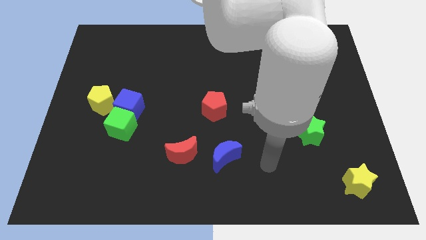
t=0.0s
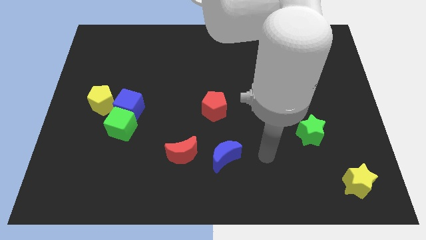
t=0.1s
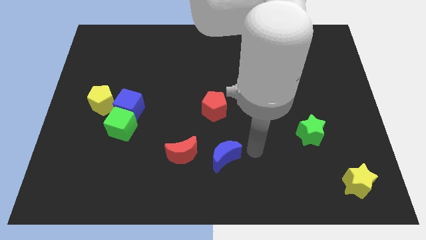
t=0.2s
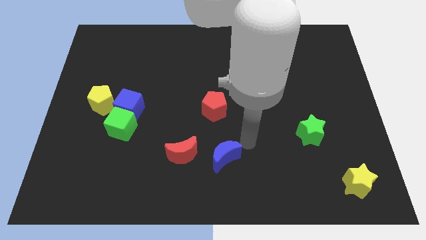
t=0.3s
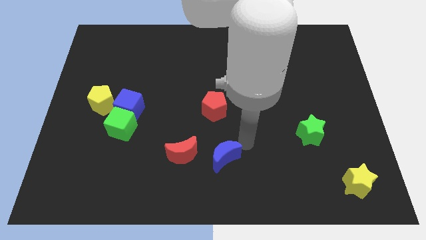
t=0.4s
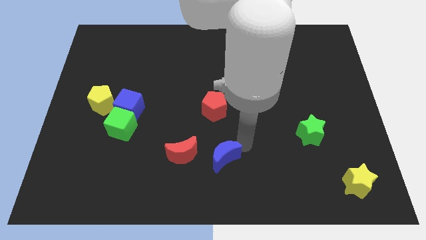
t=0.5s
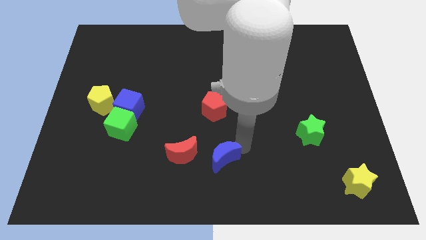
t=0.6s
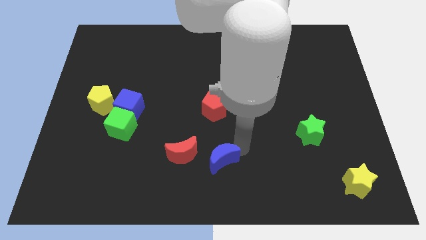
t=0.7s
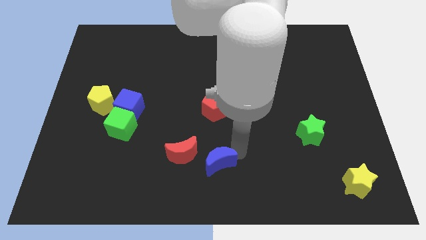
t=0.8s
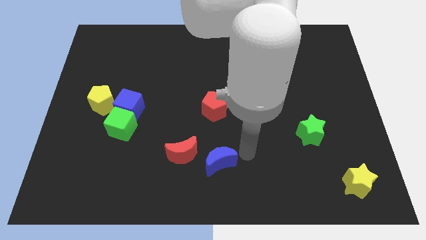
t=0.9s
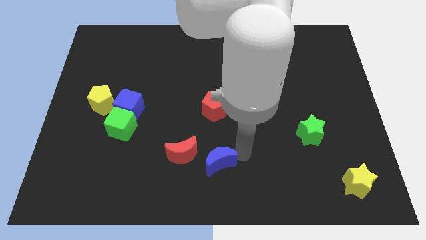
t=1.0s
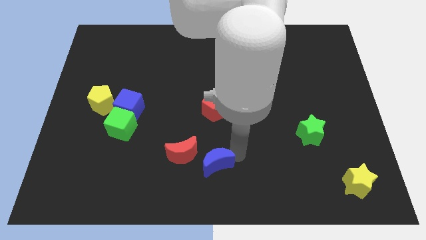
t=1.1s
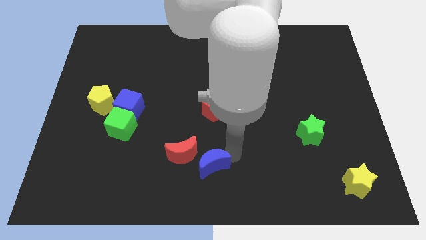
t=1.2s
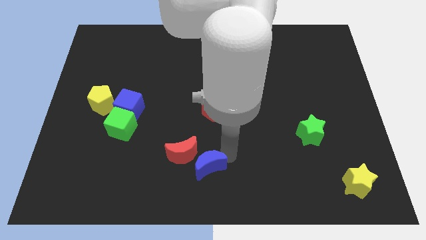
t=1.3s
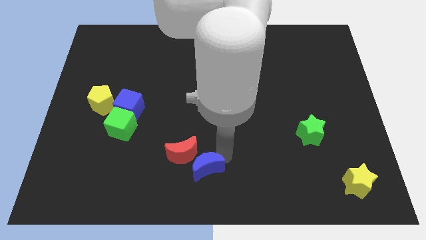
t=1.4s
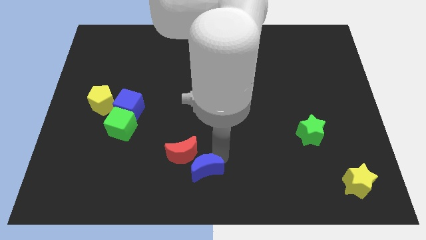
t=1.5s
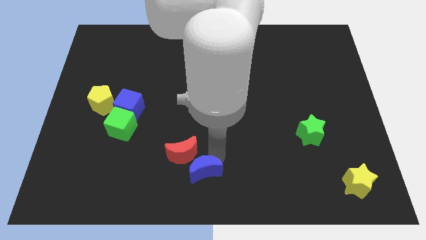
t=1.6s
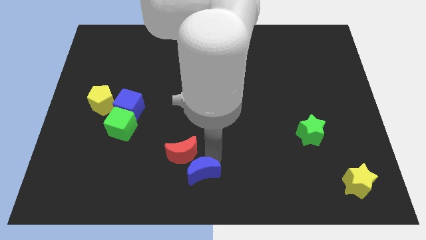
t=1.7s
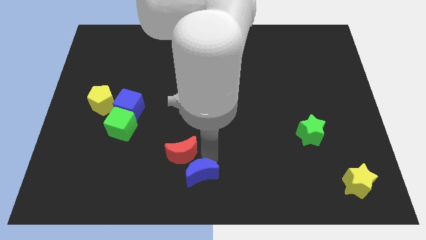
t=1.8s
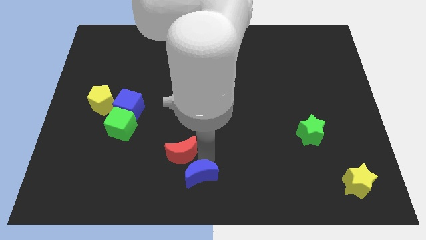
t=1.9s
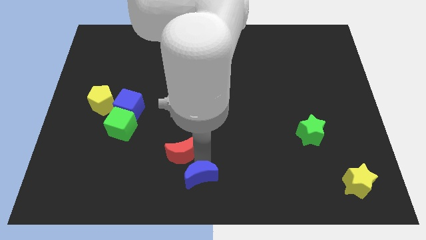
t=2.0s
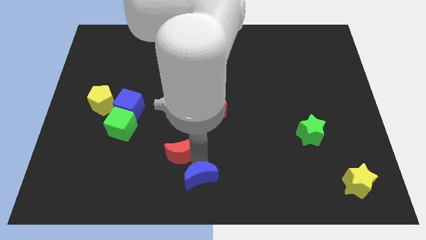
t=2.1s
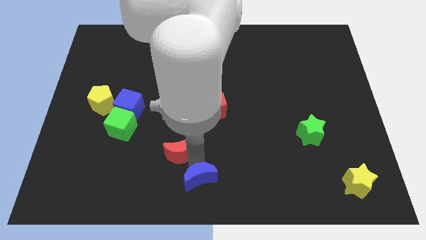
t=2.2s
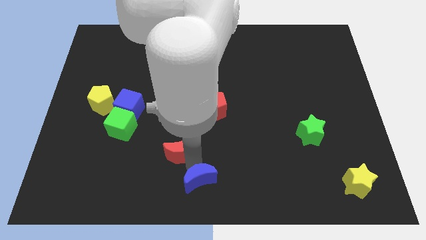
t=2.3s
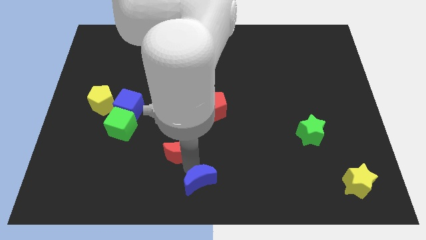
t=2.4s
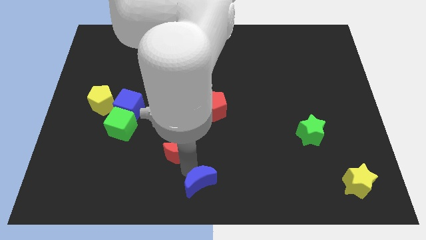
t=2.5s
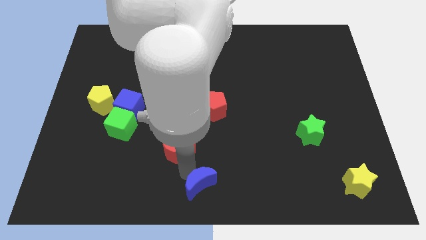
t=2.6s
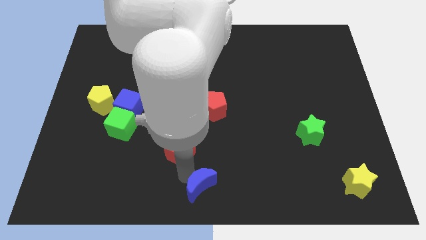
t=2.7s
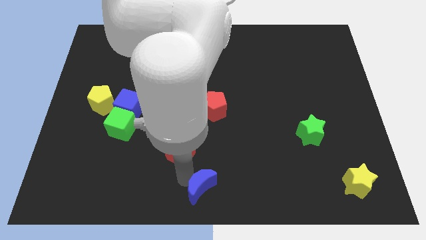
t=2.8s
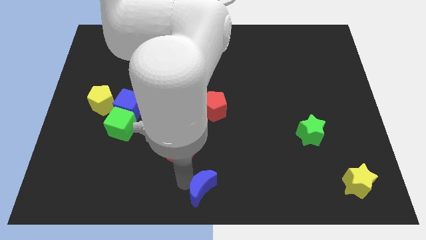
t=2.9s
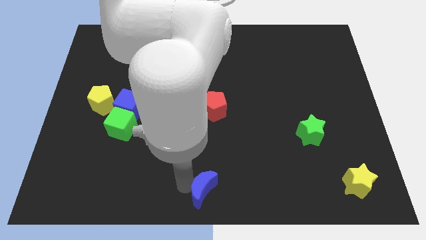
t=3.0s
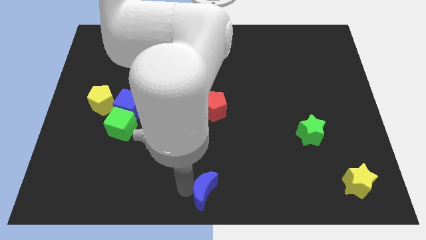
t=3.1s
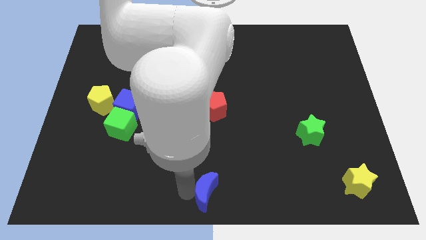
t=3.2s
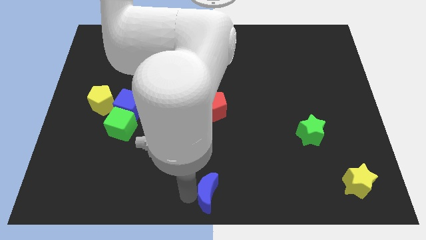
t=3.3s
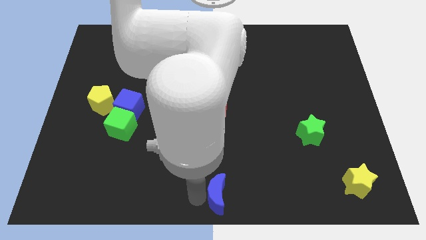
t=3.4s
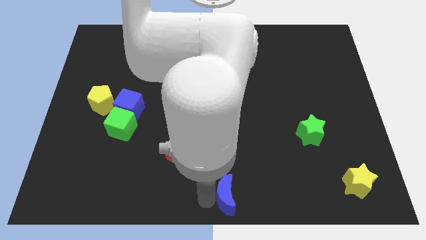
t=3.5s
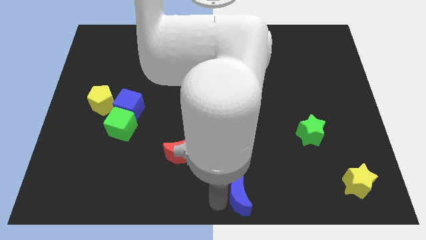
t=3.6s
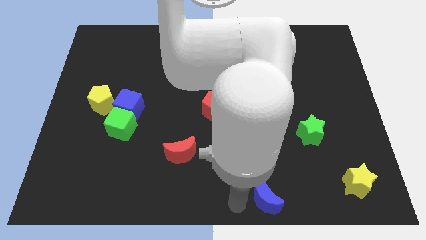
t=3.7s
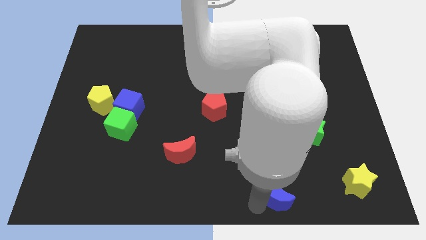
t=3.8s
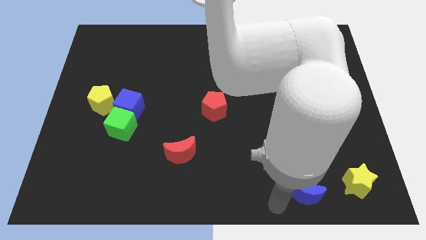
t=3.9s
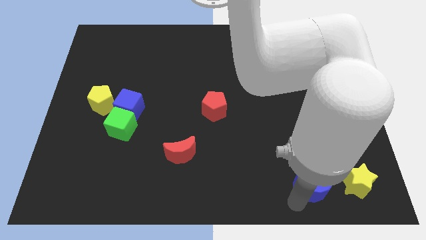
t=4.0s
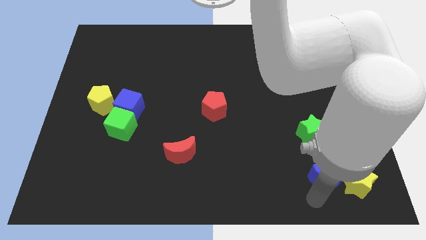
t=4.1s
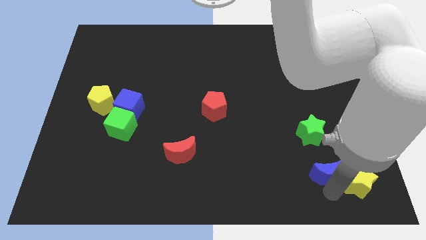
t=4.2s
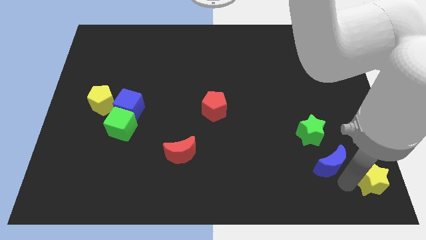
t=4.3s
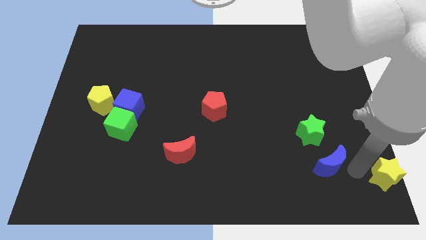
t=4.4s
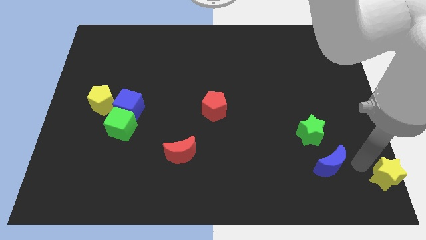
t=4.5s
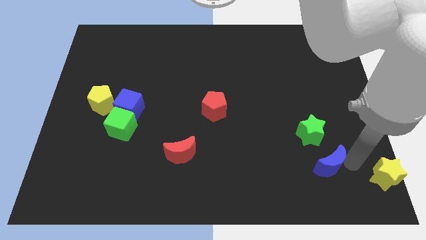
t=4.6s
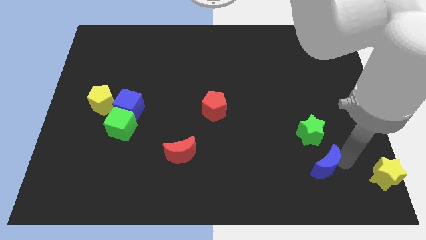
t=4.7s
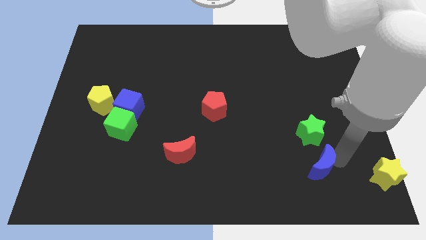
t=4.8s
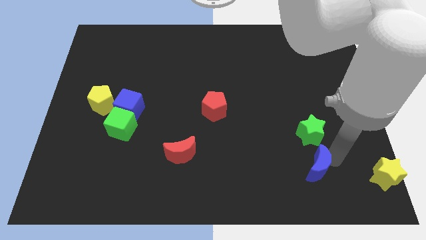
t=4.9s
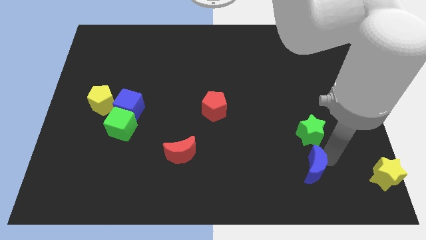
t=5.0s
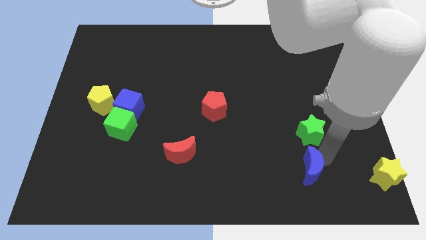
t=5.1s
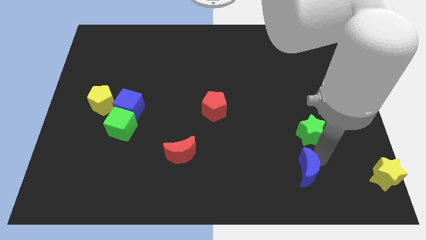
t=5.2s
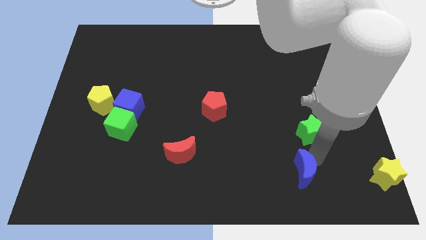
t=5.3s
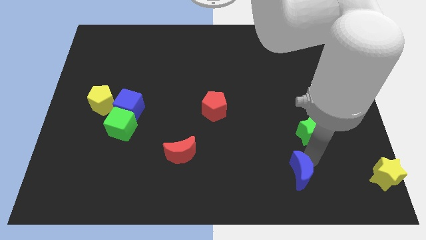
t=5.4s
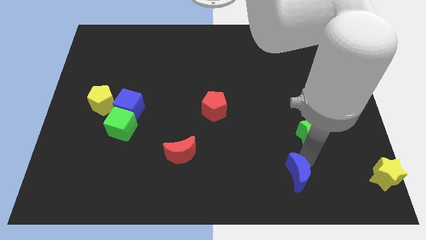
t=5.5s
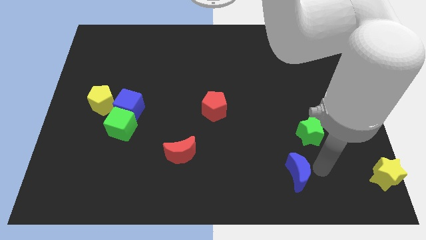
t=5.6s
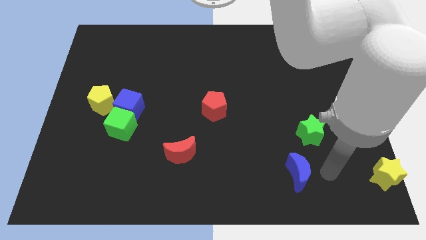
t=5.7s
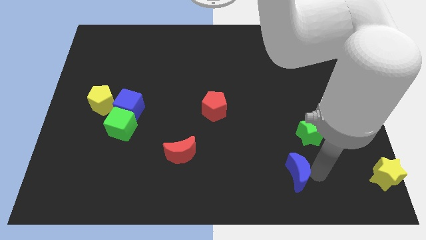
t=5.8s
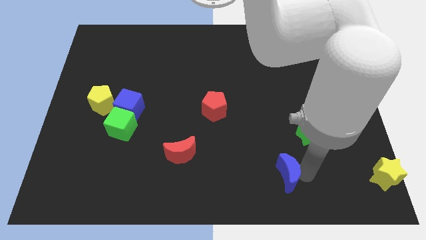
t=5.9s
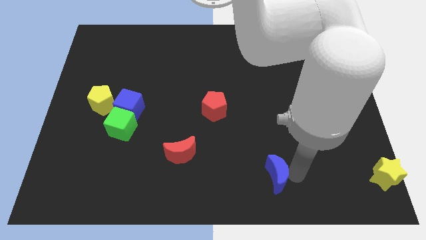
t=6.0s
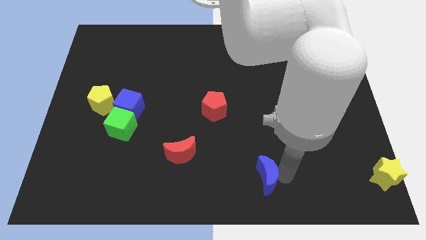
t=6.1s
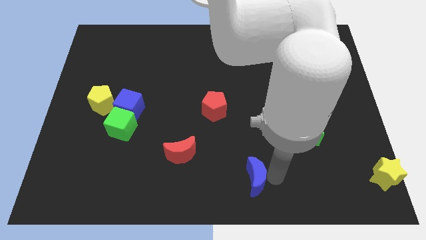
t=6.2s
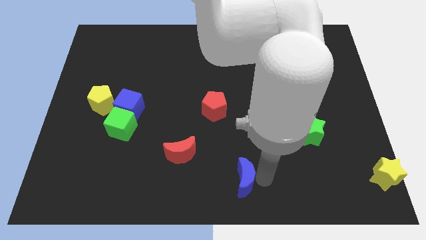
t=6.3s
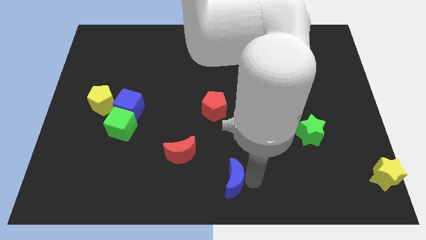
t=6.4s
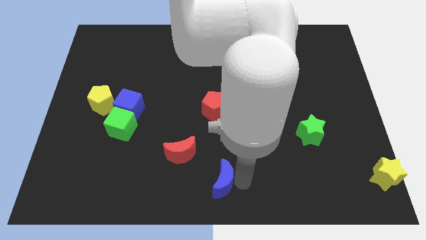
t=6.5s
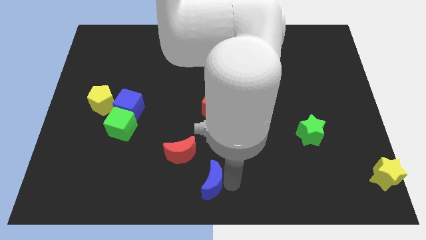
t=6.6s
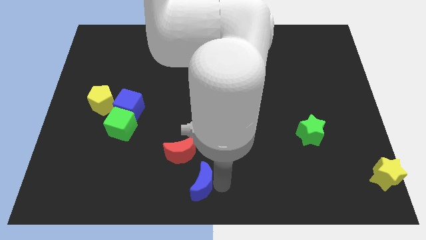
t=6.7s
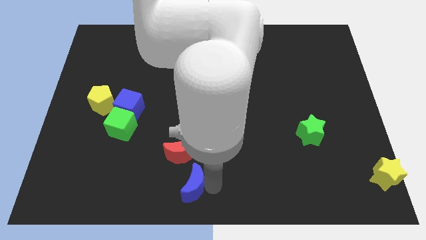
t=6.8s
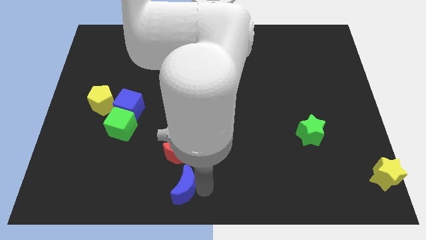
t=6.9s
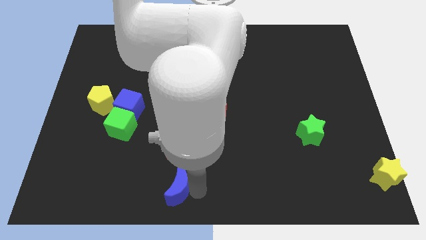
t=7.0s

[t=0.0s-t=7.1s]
move the blue moon somewhat left

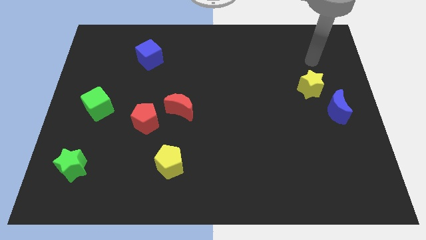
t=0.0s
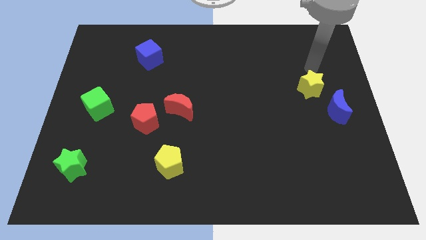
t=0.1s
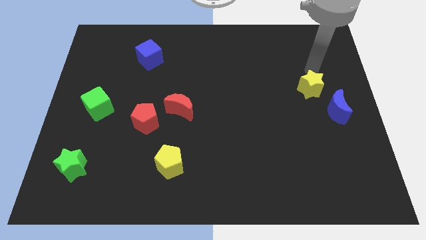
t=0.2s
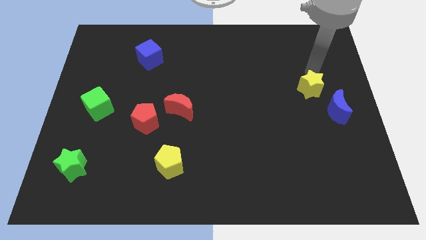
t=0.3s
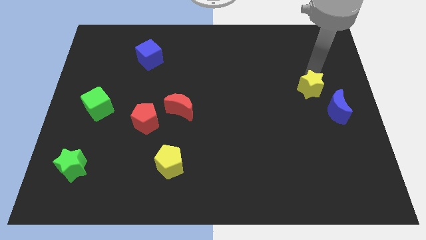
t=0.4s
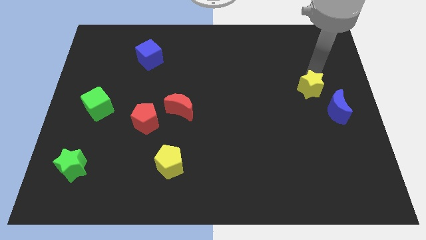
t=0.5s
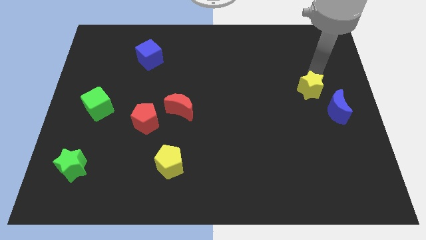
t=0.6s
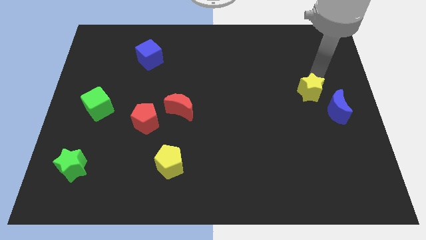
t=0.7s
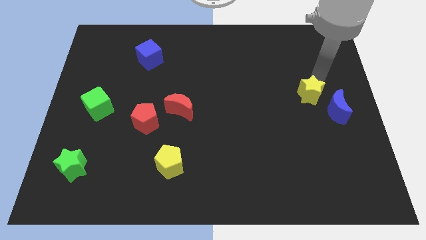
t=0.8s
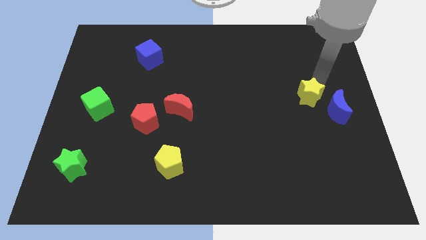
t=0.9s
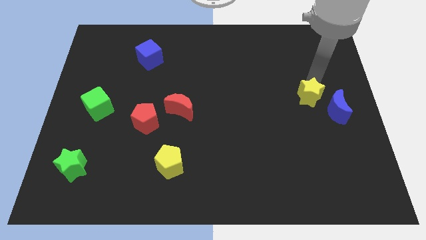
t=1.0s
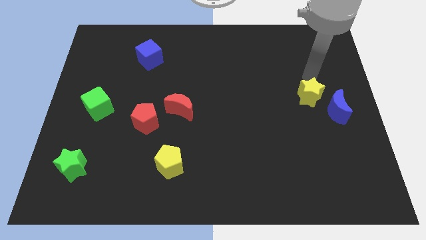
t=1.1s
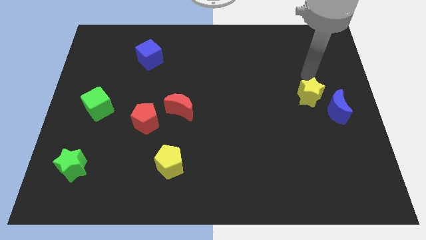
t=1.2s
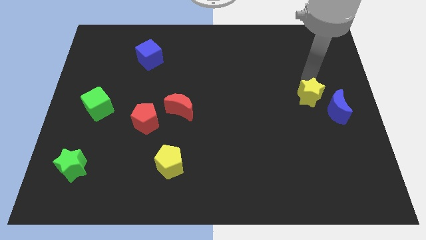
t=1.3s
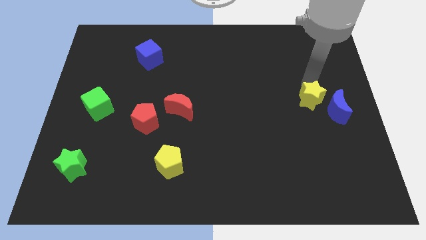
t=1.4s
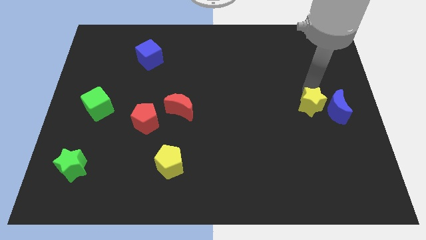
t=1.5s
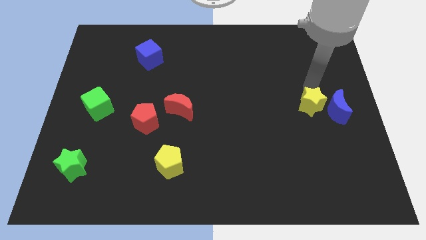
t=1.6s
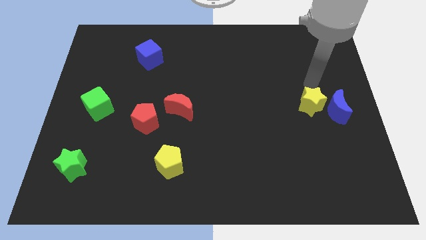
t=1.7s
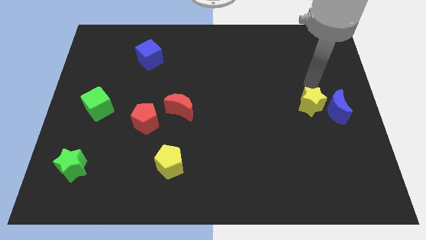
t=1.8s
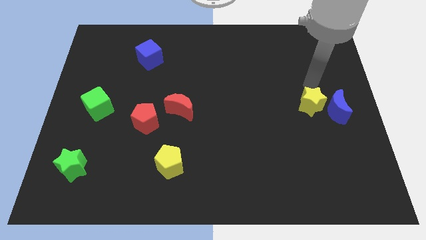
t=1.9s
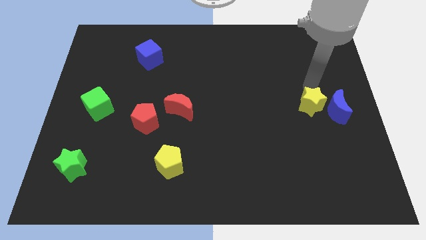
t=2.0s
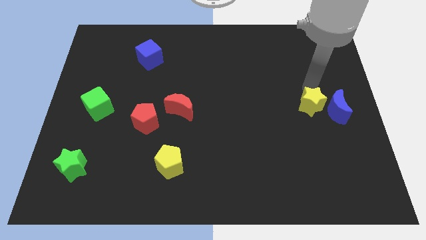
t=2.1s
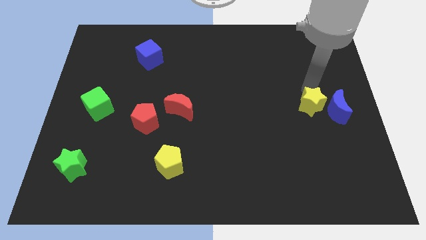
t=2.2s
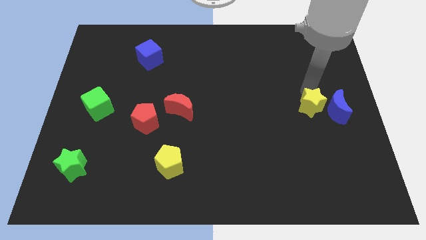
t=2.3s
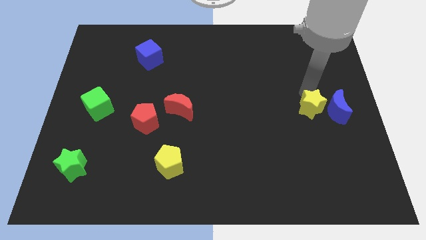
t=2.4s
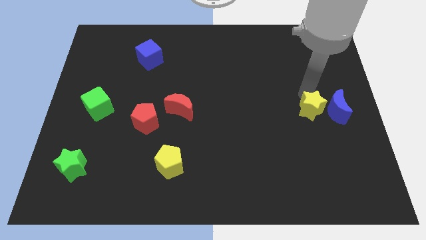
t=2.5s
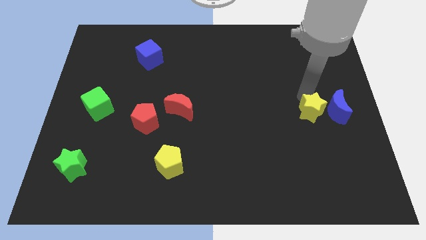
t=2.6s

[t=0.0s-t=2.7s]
slide the yellow star down somewhat
